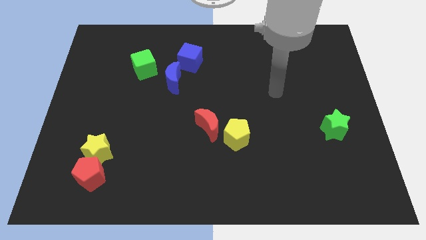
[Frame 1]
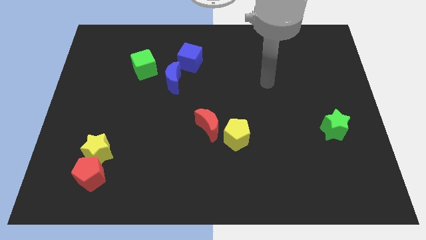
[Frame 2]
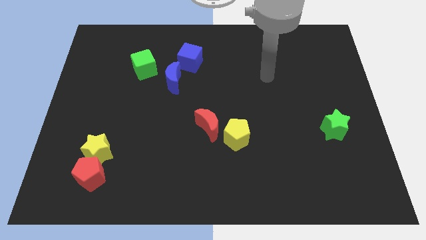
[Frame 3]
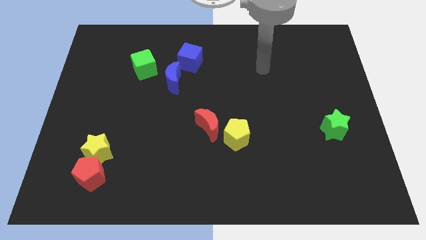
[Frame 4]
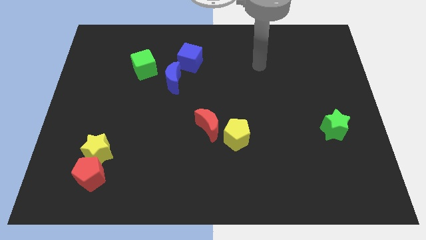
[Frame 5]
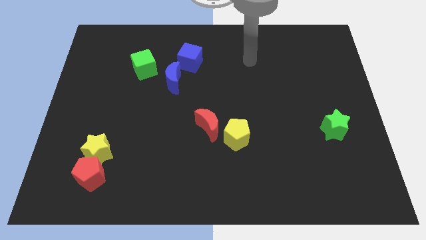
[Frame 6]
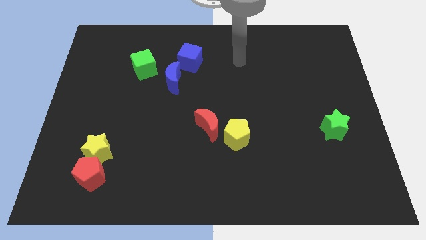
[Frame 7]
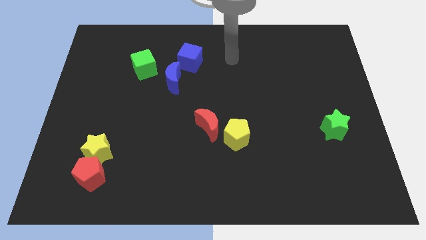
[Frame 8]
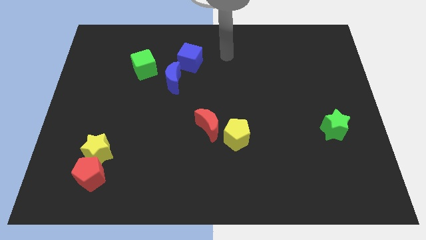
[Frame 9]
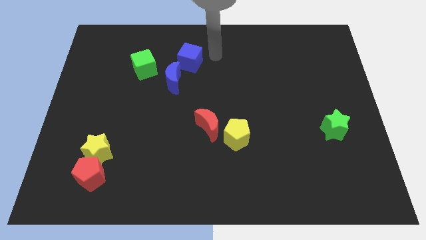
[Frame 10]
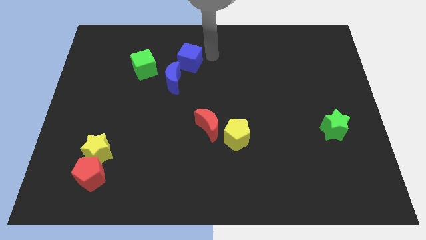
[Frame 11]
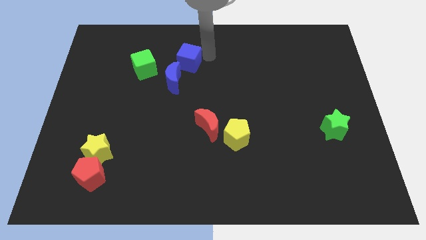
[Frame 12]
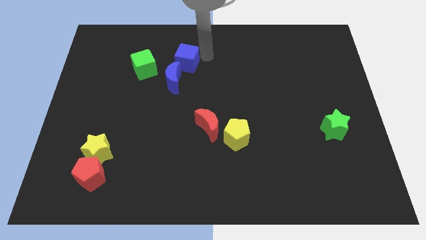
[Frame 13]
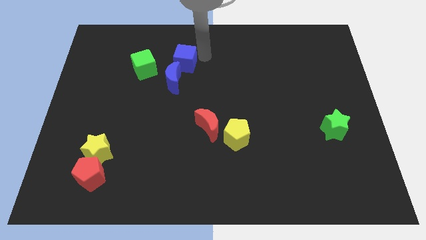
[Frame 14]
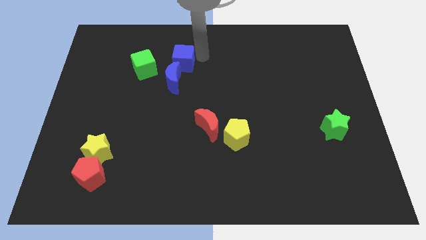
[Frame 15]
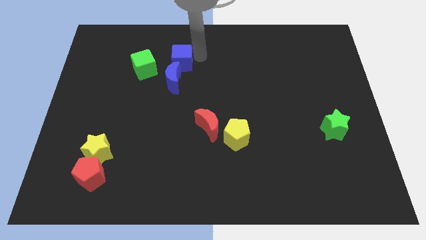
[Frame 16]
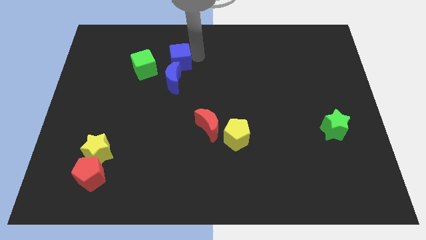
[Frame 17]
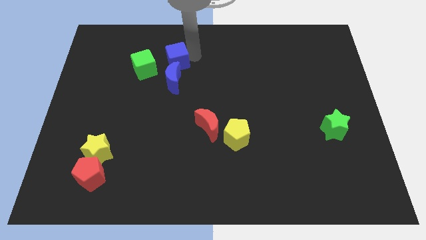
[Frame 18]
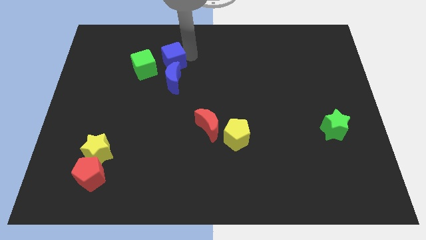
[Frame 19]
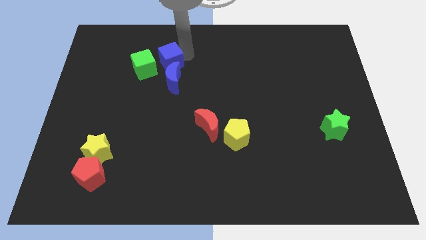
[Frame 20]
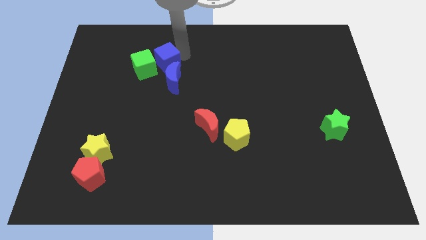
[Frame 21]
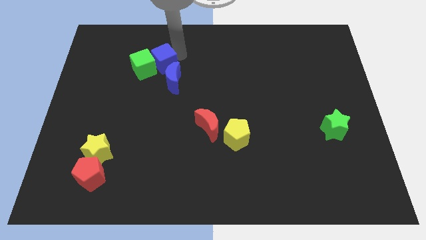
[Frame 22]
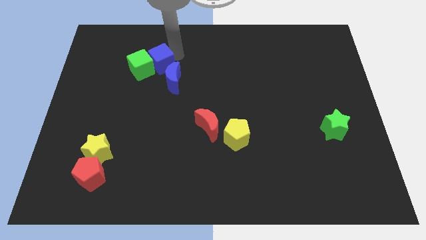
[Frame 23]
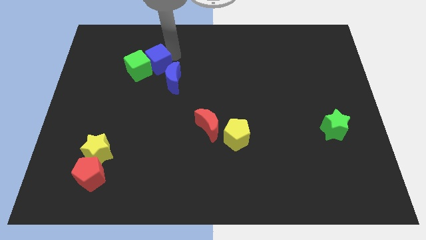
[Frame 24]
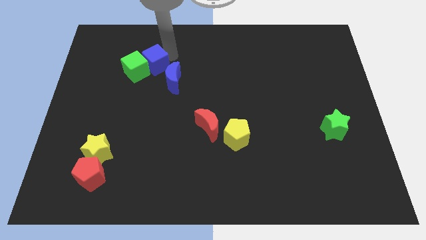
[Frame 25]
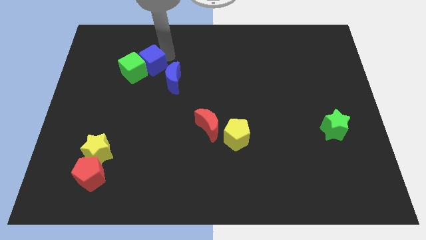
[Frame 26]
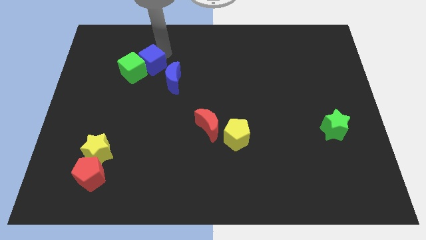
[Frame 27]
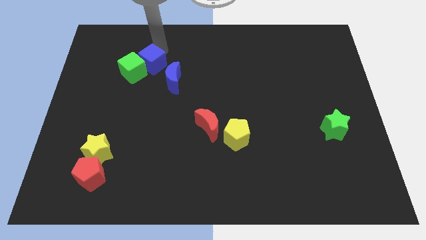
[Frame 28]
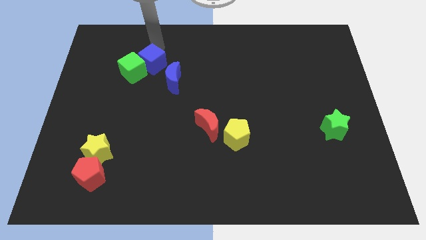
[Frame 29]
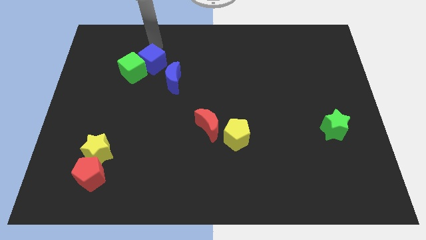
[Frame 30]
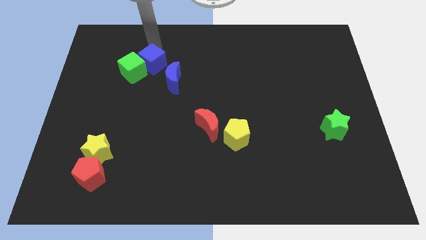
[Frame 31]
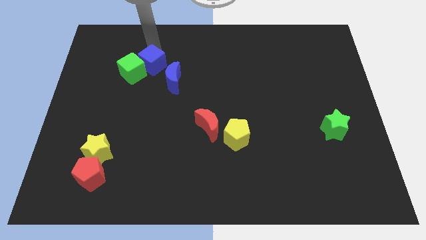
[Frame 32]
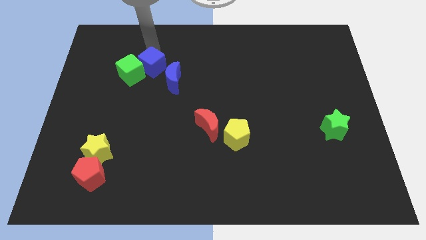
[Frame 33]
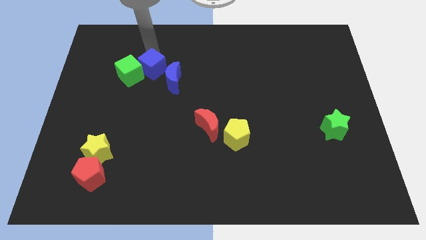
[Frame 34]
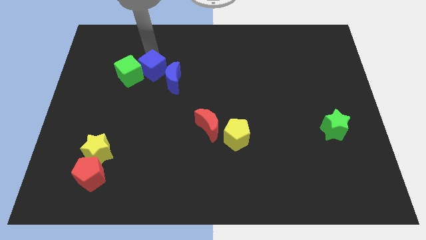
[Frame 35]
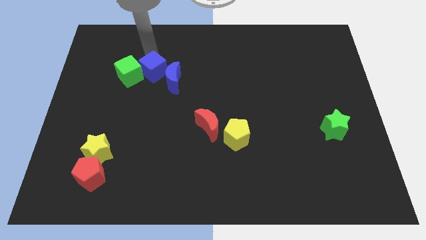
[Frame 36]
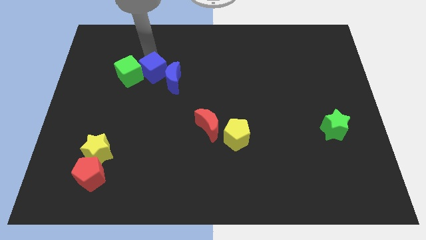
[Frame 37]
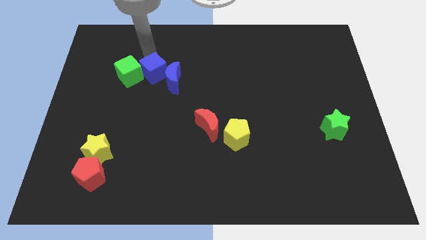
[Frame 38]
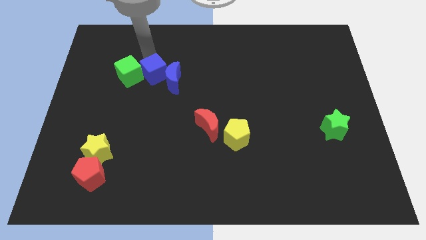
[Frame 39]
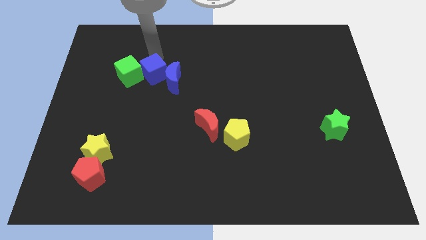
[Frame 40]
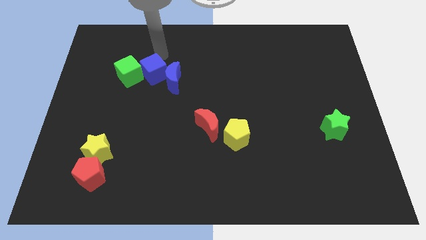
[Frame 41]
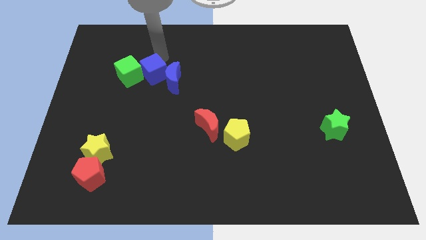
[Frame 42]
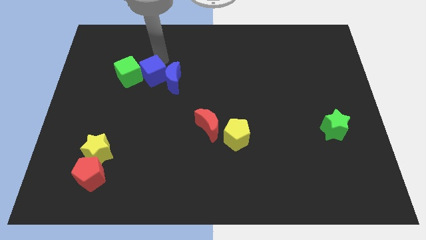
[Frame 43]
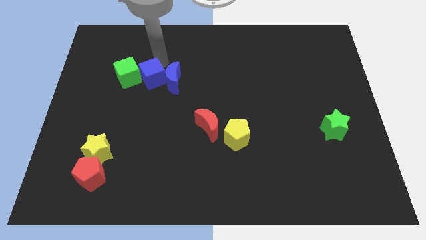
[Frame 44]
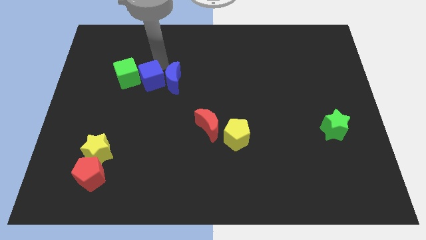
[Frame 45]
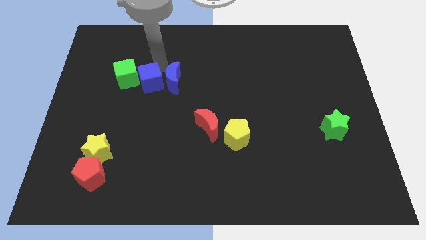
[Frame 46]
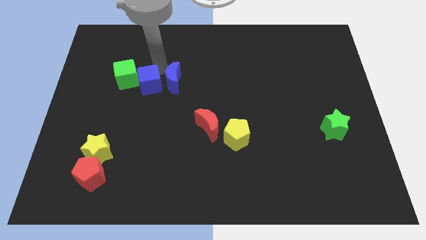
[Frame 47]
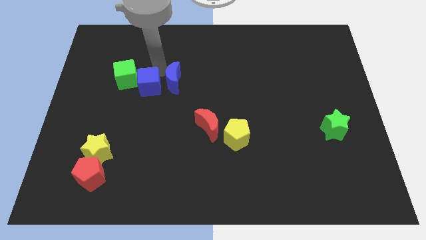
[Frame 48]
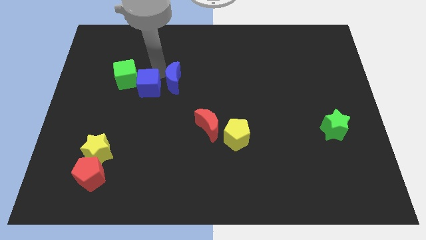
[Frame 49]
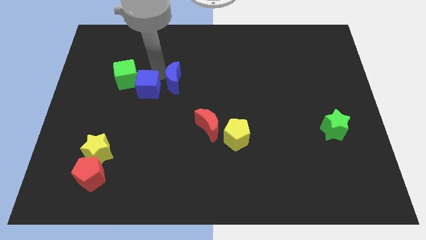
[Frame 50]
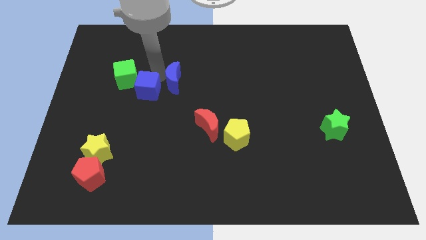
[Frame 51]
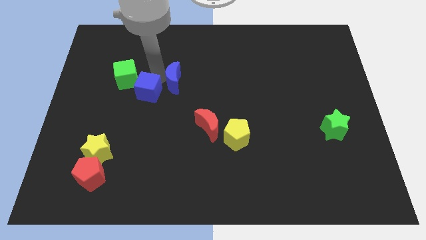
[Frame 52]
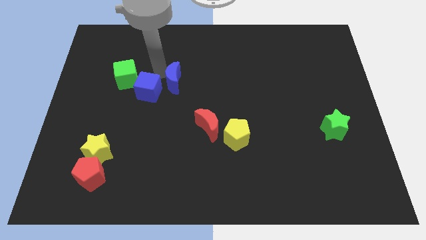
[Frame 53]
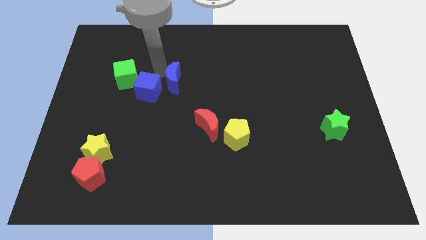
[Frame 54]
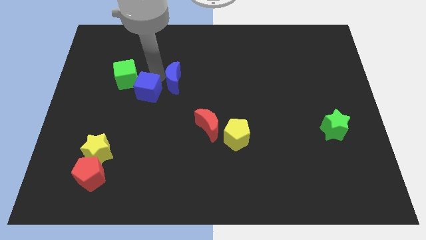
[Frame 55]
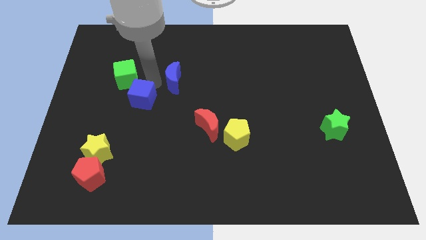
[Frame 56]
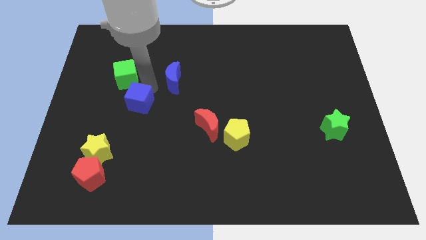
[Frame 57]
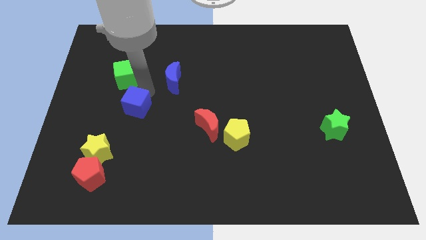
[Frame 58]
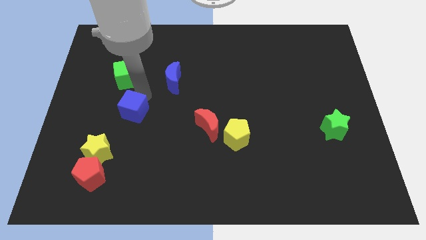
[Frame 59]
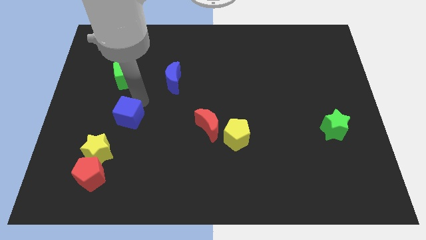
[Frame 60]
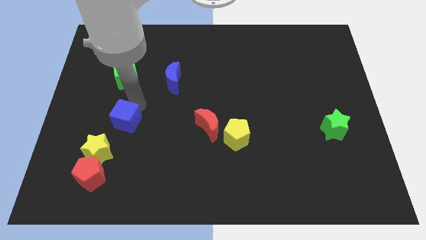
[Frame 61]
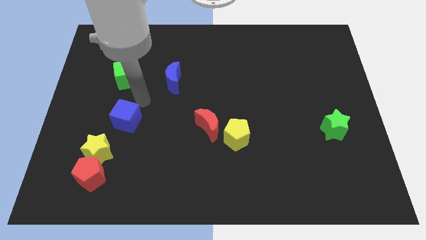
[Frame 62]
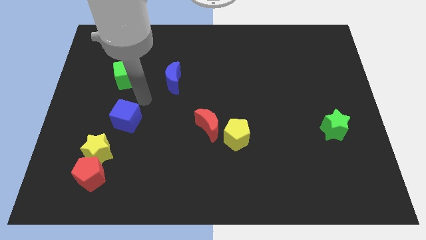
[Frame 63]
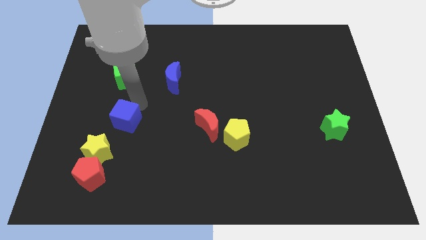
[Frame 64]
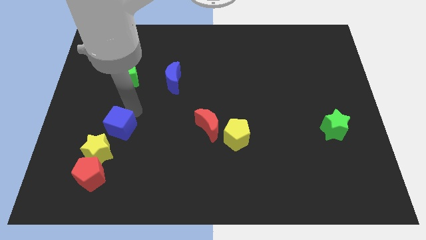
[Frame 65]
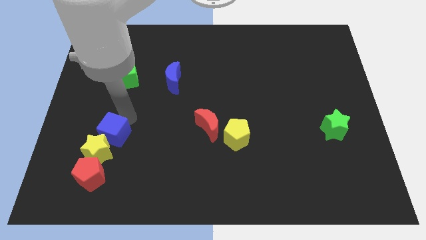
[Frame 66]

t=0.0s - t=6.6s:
put the blue cube next to the yellow star

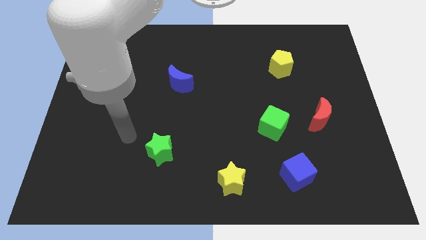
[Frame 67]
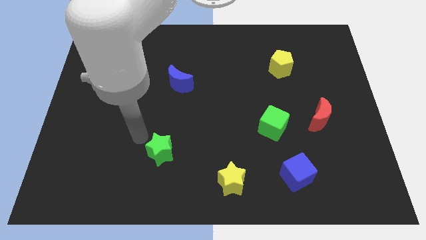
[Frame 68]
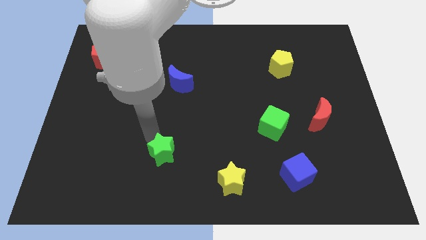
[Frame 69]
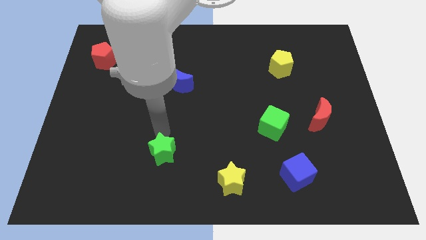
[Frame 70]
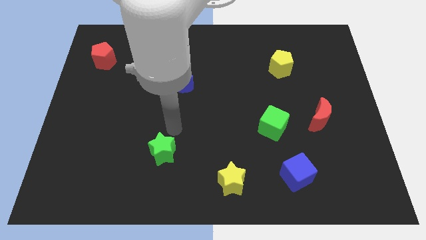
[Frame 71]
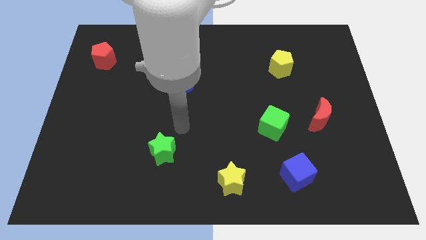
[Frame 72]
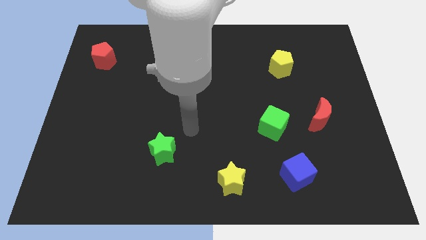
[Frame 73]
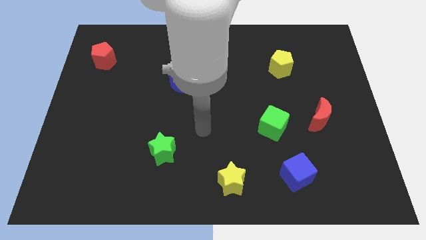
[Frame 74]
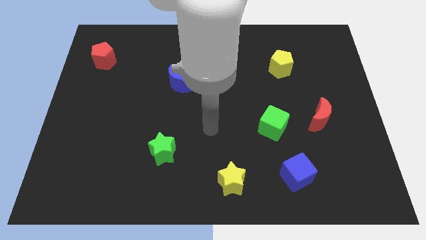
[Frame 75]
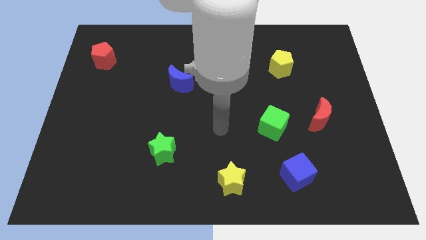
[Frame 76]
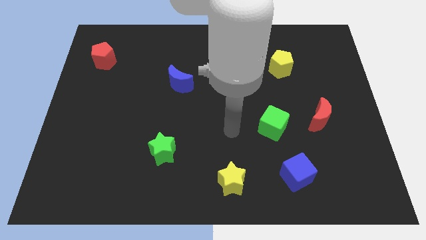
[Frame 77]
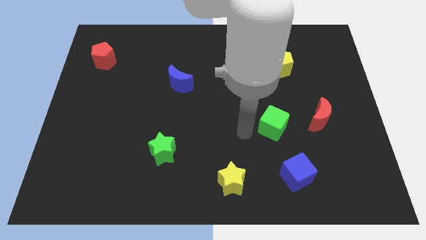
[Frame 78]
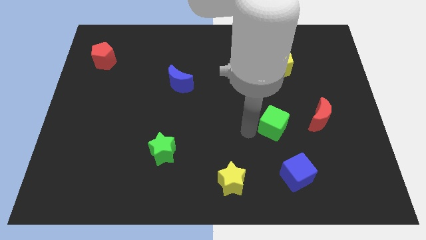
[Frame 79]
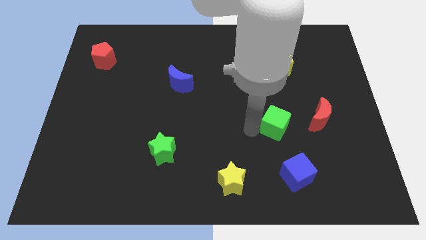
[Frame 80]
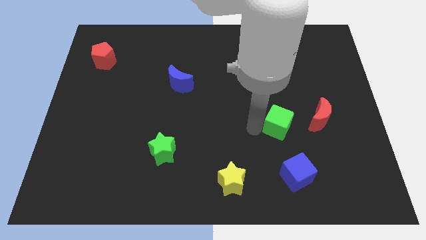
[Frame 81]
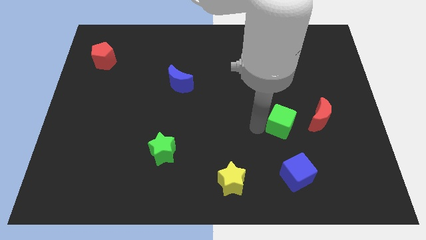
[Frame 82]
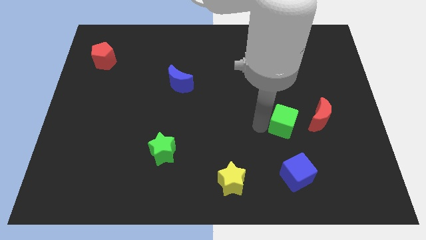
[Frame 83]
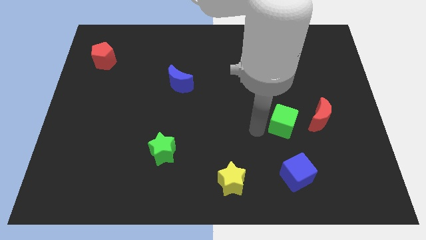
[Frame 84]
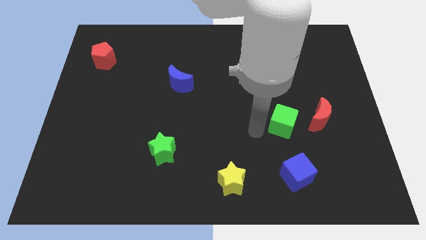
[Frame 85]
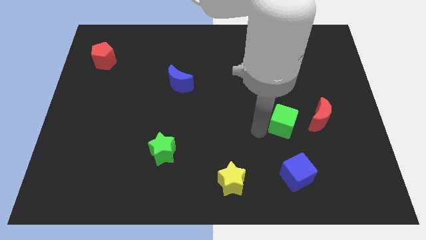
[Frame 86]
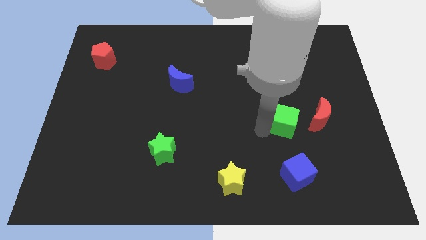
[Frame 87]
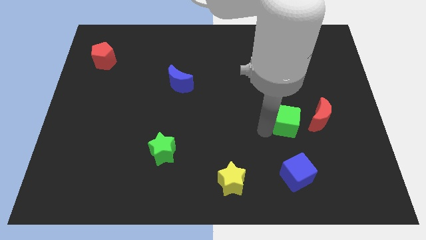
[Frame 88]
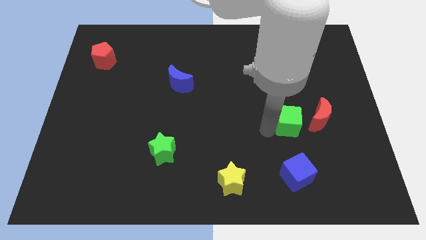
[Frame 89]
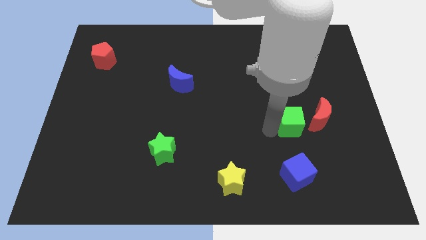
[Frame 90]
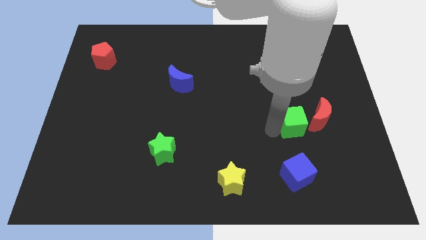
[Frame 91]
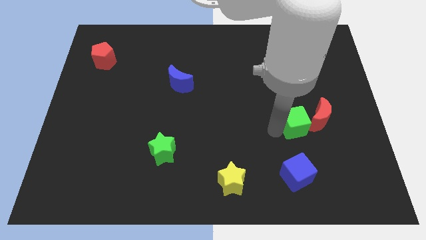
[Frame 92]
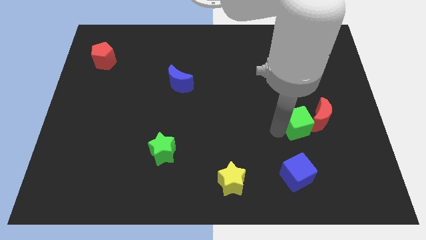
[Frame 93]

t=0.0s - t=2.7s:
slide the green cube towards the red moon
